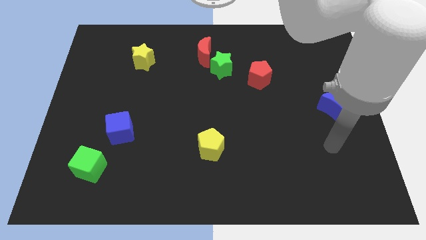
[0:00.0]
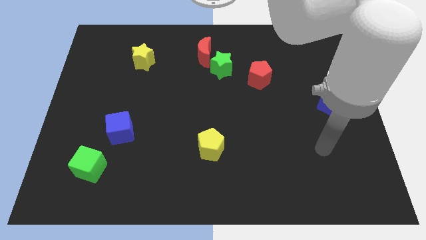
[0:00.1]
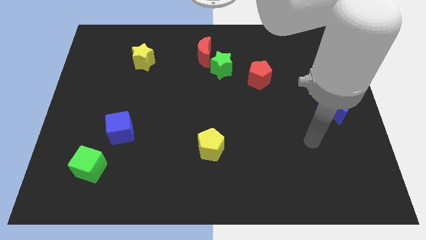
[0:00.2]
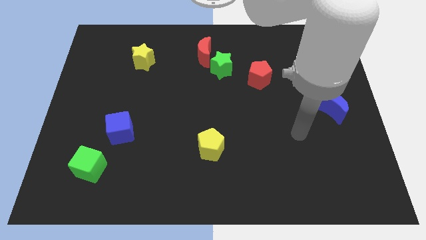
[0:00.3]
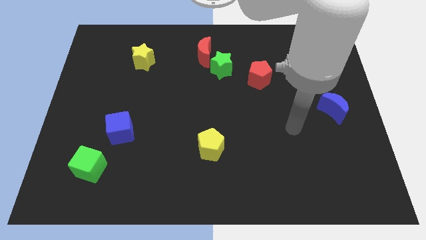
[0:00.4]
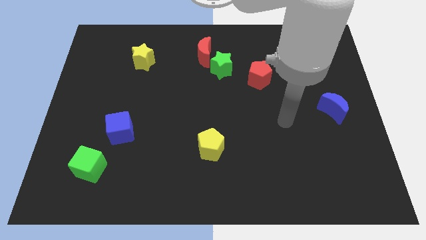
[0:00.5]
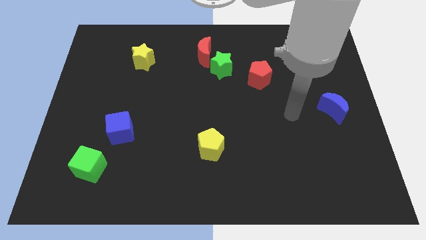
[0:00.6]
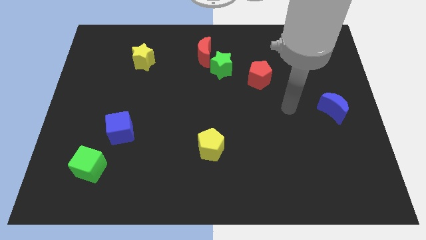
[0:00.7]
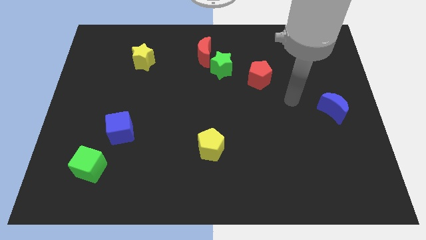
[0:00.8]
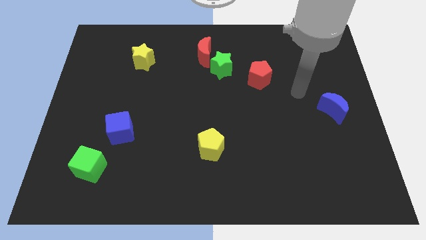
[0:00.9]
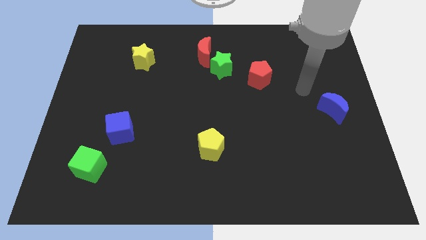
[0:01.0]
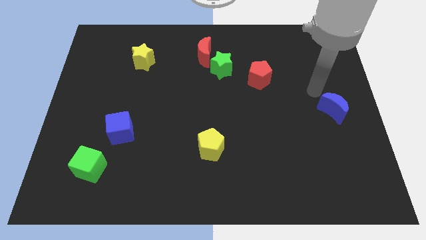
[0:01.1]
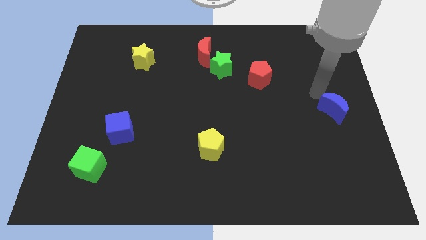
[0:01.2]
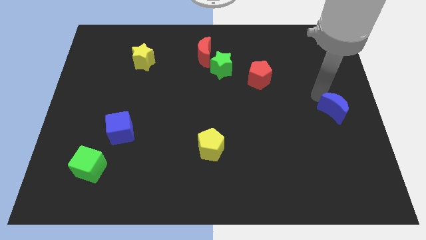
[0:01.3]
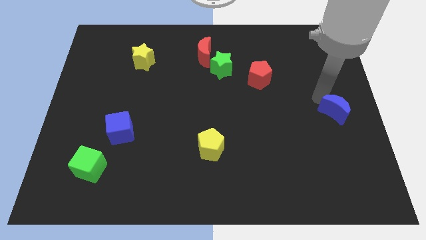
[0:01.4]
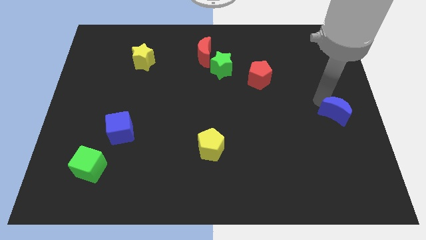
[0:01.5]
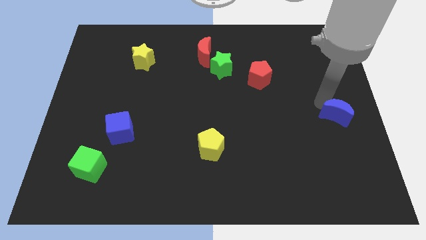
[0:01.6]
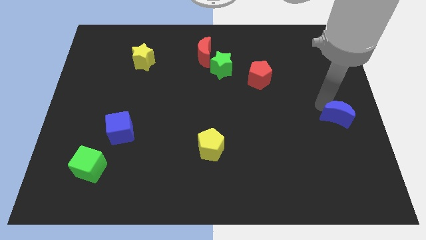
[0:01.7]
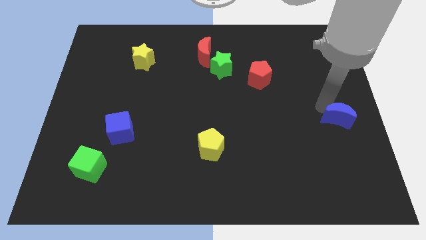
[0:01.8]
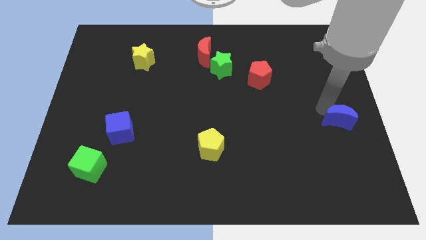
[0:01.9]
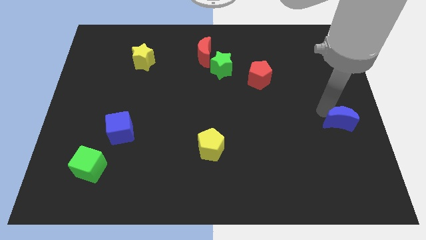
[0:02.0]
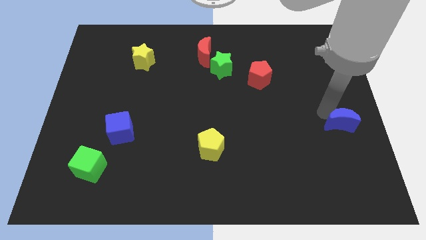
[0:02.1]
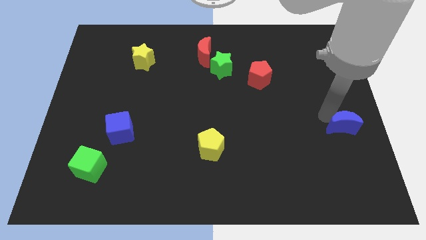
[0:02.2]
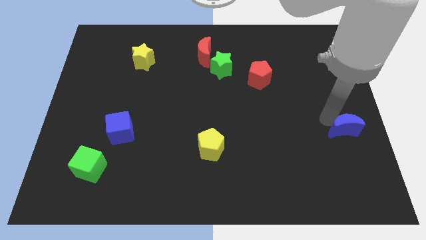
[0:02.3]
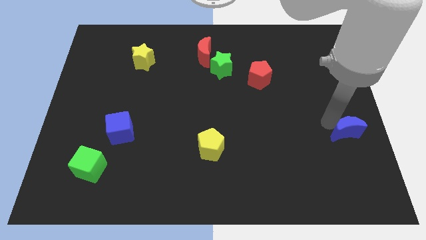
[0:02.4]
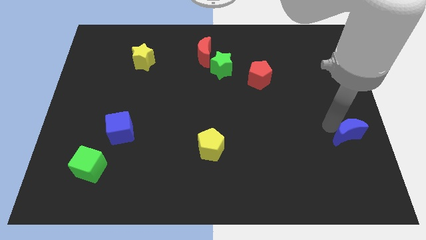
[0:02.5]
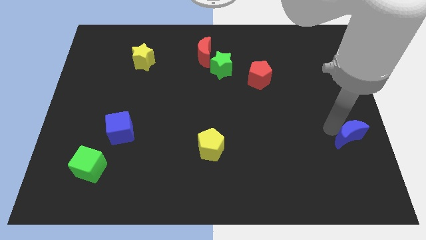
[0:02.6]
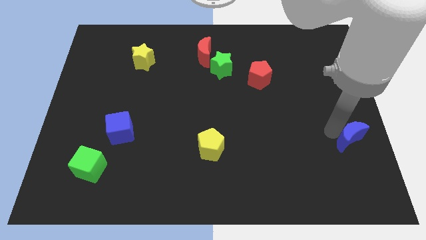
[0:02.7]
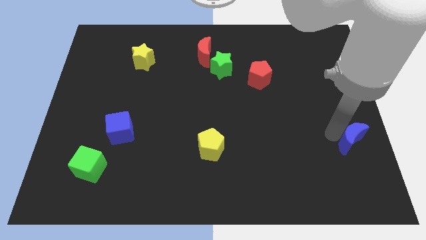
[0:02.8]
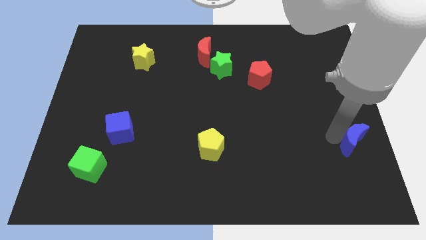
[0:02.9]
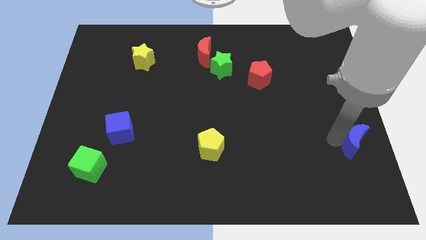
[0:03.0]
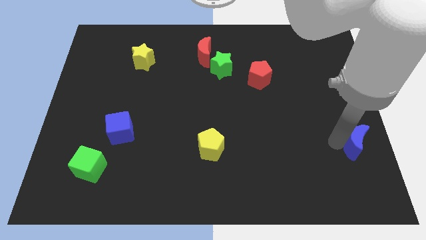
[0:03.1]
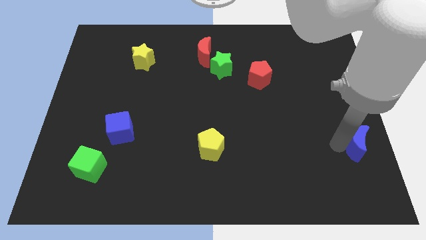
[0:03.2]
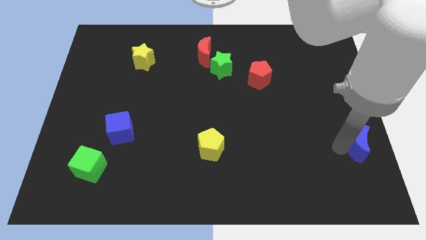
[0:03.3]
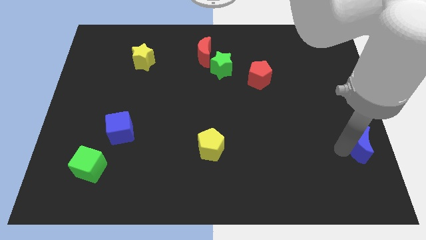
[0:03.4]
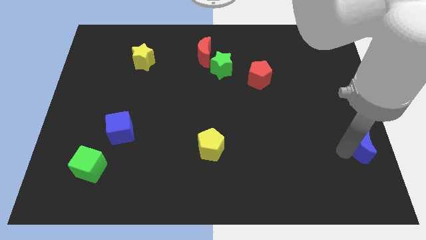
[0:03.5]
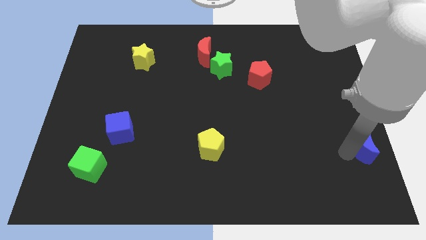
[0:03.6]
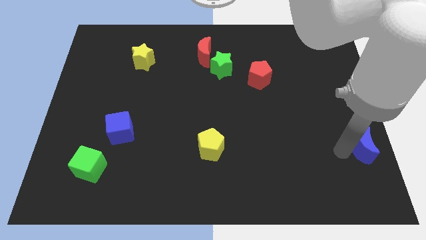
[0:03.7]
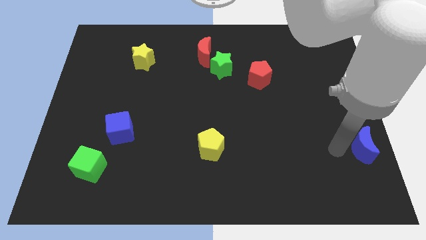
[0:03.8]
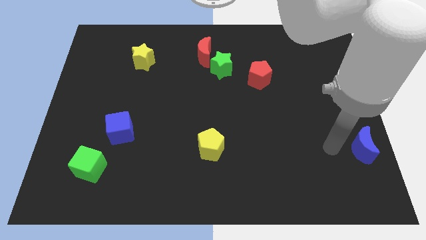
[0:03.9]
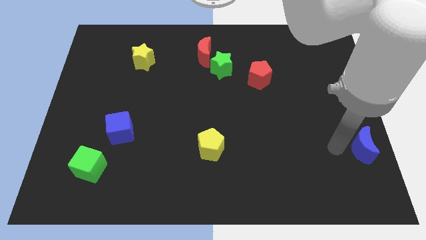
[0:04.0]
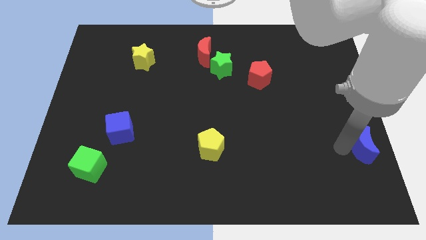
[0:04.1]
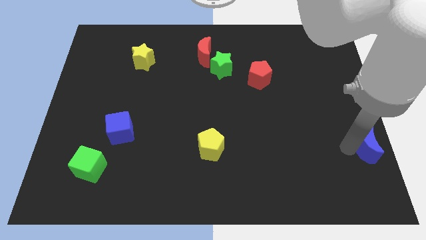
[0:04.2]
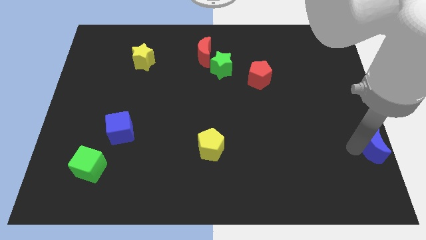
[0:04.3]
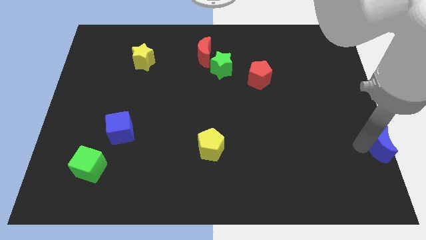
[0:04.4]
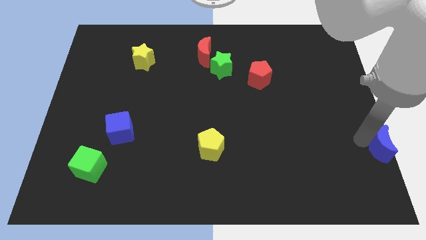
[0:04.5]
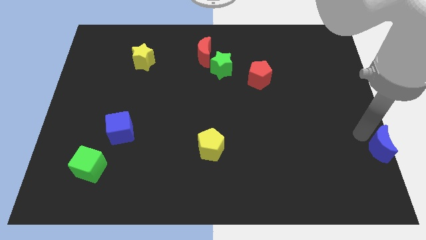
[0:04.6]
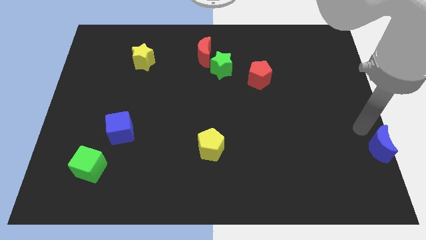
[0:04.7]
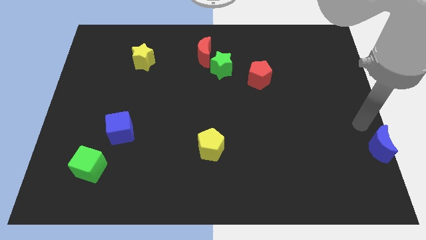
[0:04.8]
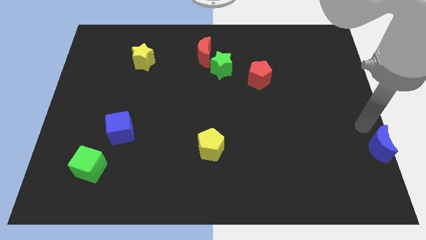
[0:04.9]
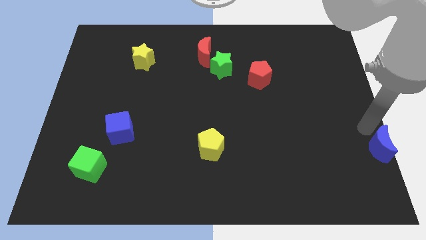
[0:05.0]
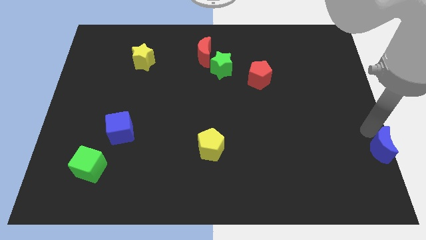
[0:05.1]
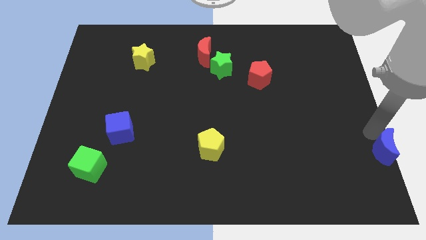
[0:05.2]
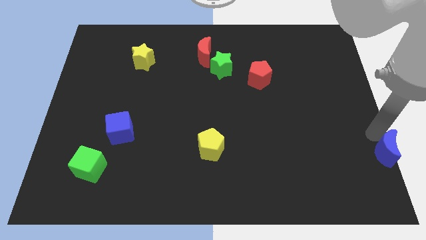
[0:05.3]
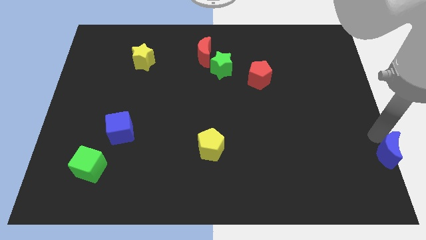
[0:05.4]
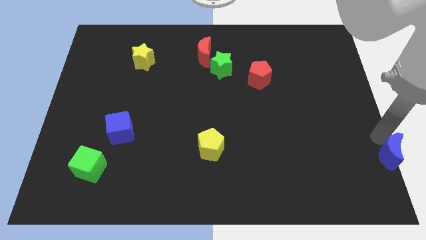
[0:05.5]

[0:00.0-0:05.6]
put the blue moon to the bottom right corner

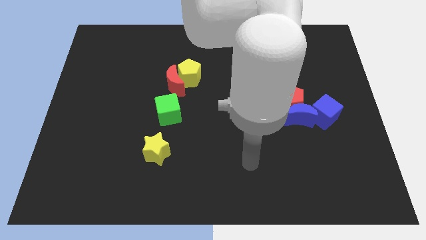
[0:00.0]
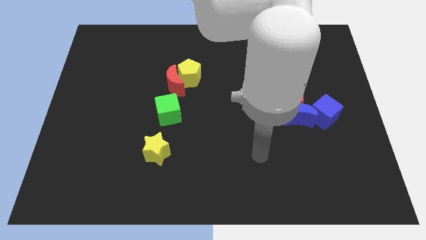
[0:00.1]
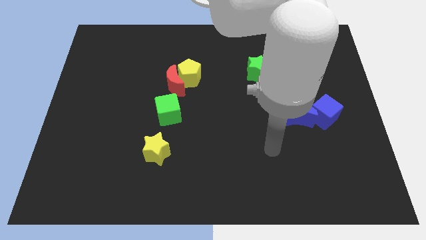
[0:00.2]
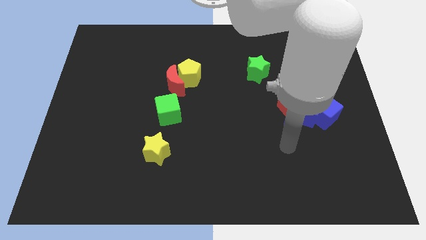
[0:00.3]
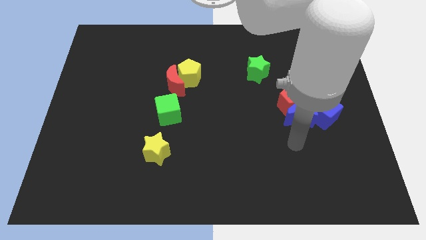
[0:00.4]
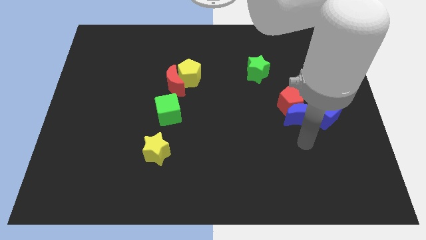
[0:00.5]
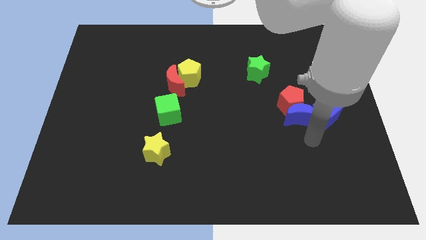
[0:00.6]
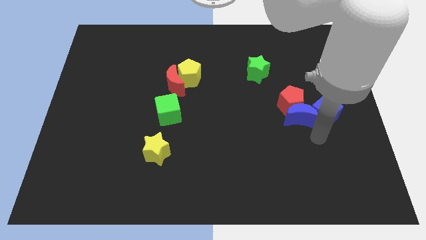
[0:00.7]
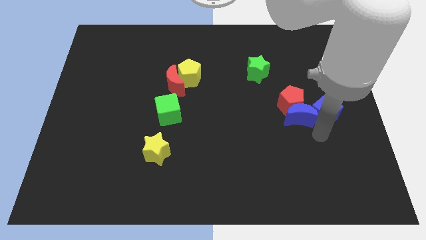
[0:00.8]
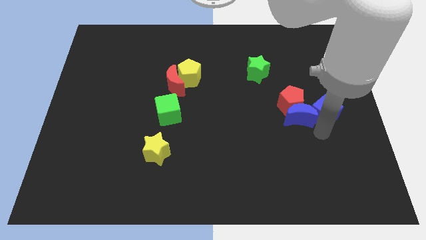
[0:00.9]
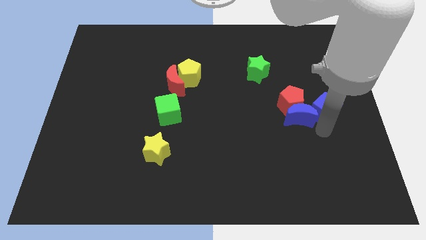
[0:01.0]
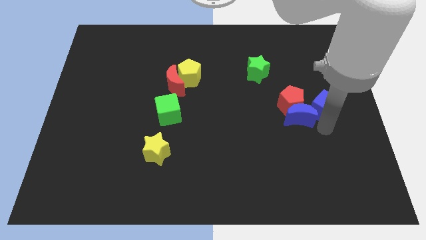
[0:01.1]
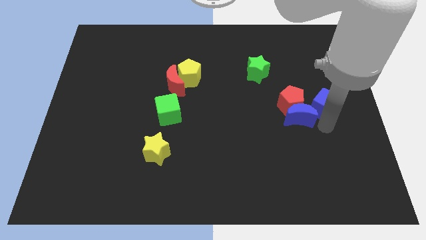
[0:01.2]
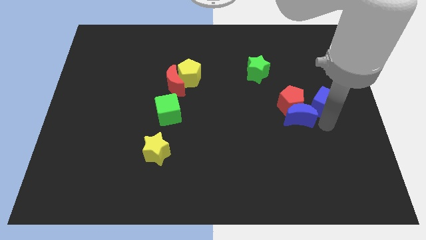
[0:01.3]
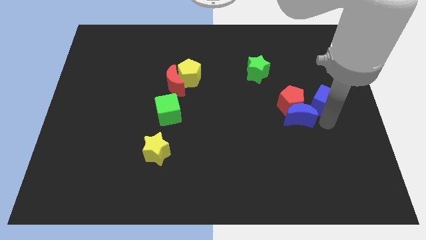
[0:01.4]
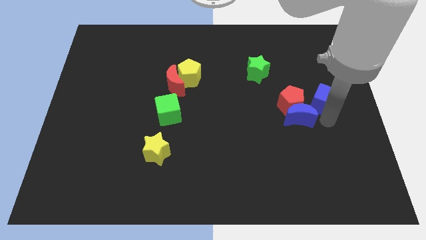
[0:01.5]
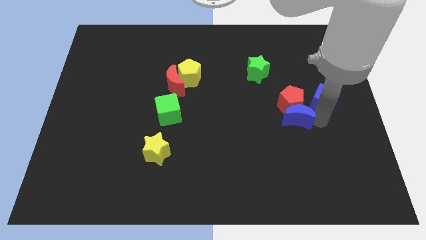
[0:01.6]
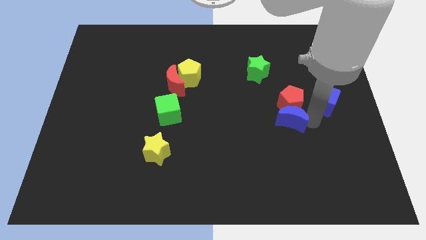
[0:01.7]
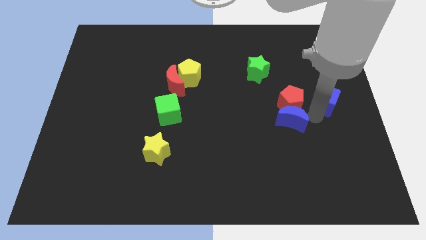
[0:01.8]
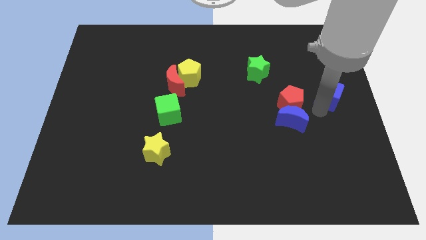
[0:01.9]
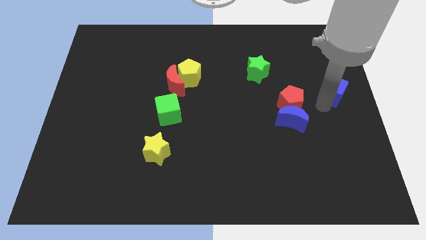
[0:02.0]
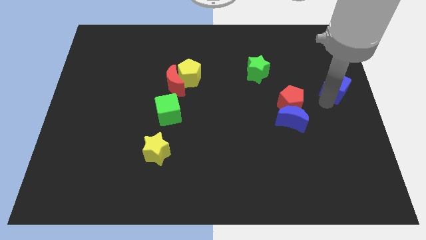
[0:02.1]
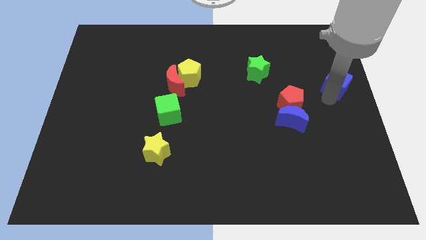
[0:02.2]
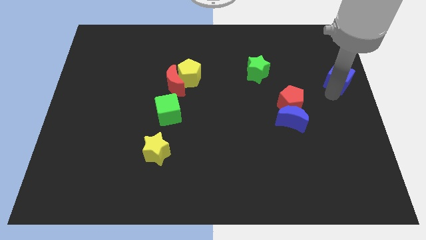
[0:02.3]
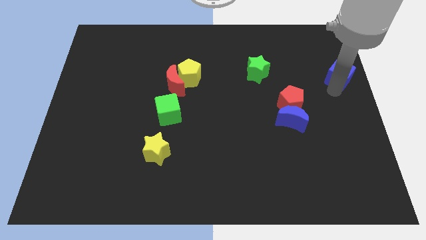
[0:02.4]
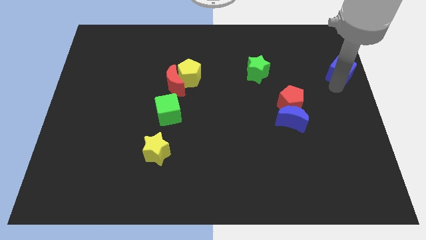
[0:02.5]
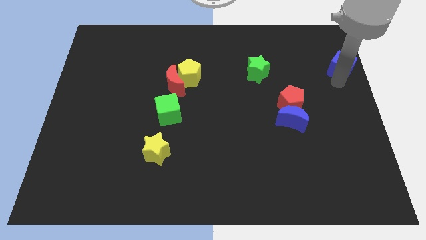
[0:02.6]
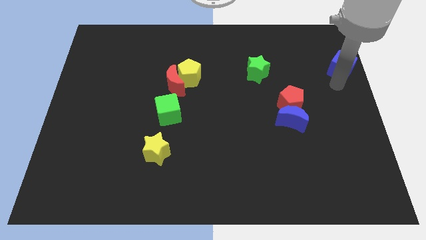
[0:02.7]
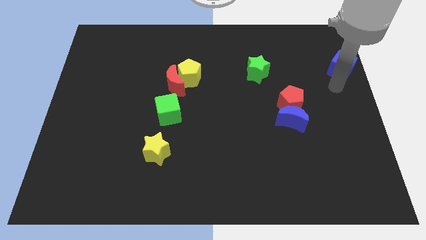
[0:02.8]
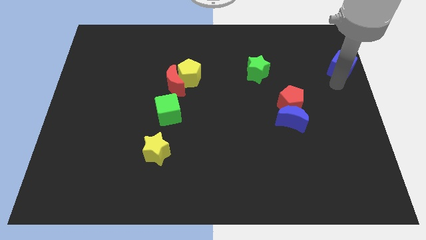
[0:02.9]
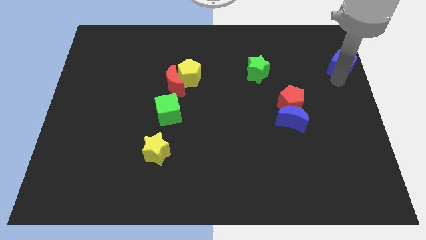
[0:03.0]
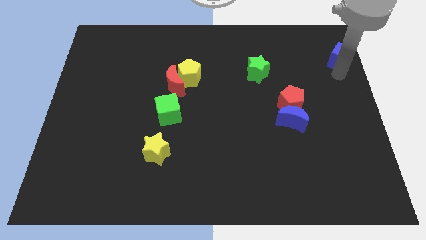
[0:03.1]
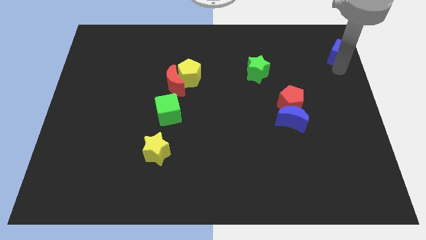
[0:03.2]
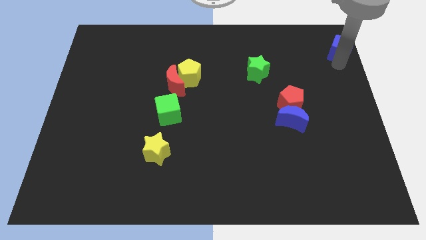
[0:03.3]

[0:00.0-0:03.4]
move the blue cube to the upper right corner
